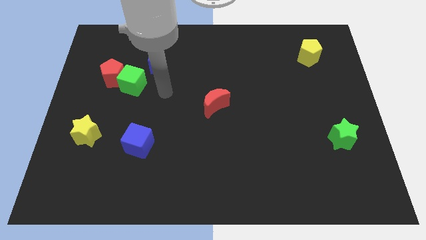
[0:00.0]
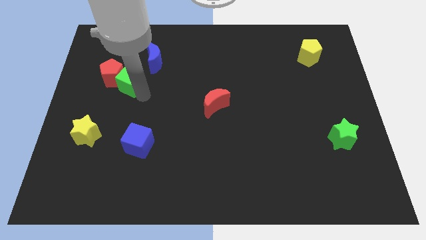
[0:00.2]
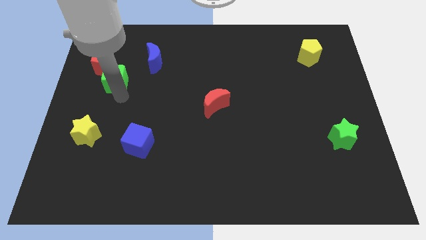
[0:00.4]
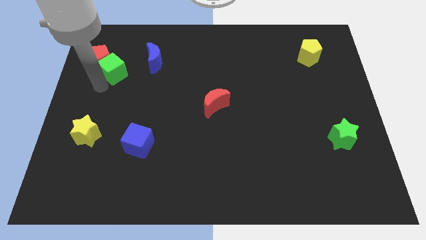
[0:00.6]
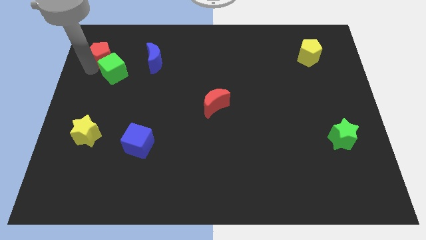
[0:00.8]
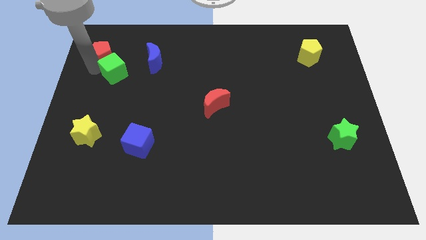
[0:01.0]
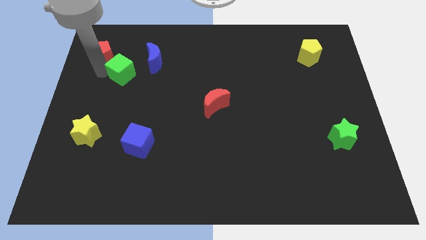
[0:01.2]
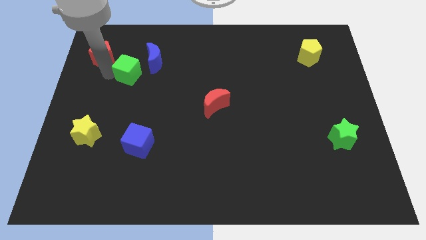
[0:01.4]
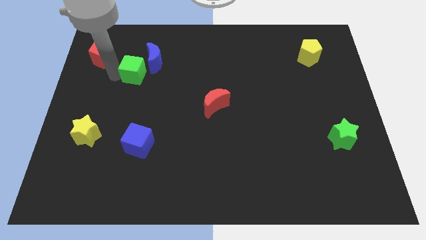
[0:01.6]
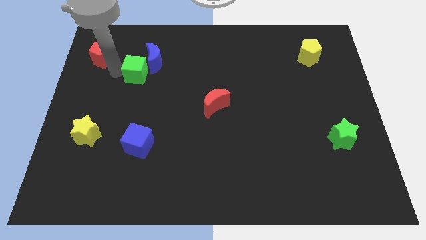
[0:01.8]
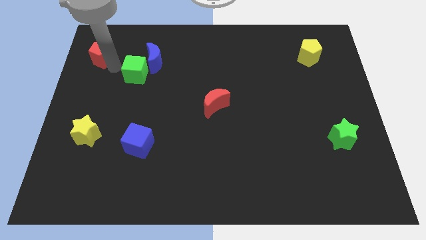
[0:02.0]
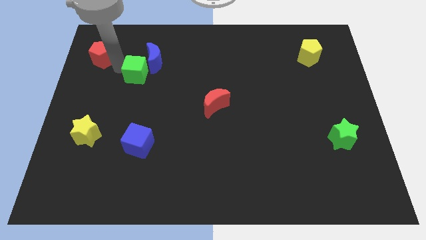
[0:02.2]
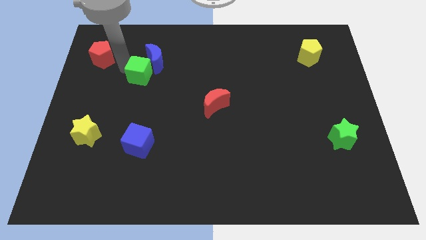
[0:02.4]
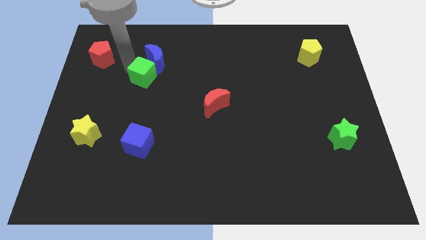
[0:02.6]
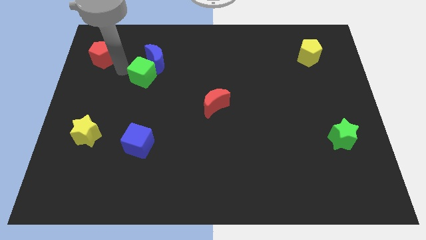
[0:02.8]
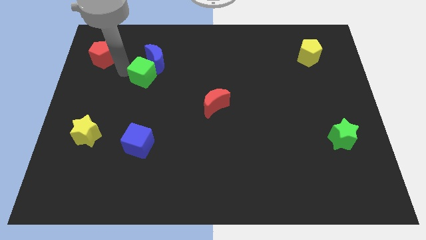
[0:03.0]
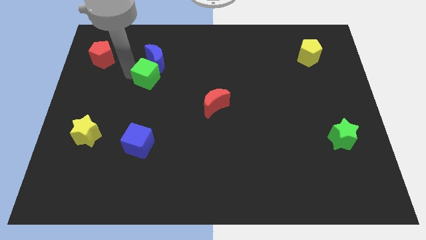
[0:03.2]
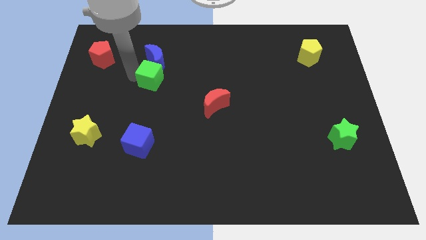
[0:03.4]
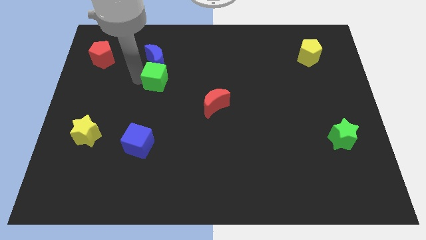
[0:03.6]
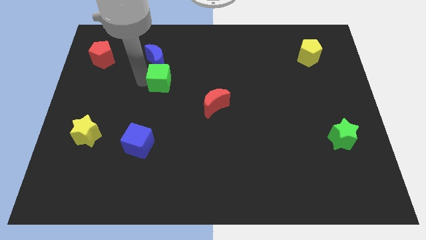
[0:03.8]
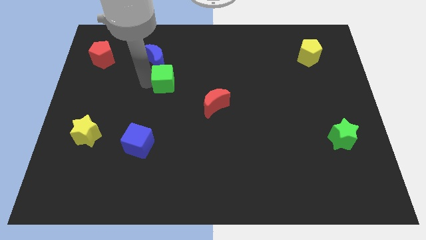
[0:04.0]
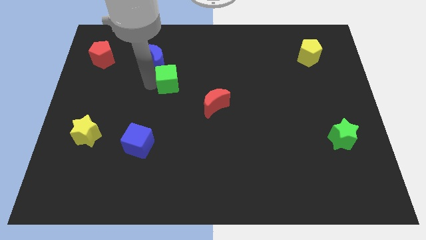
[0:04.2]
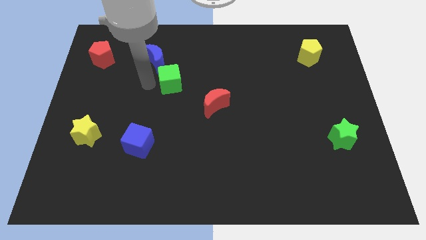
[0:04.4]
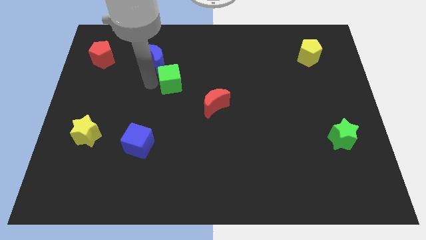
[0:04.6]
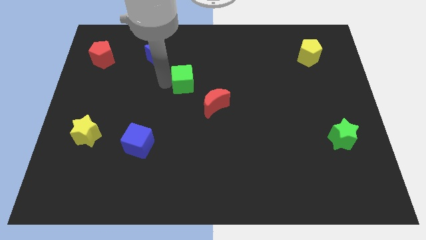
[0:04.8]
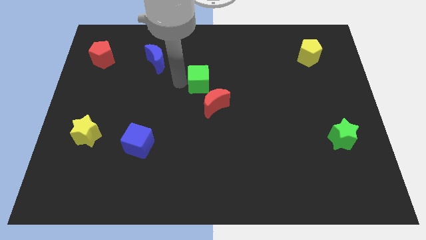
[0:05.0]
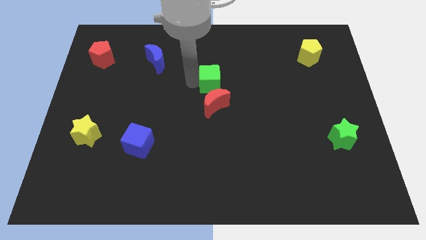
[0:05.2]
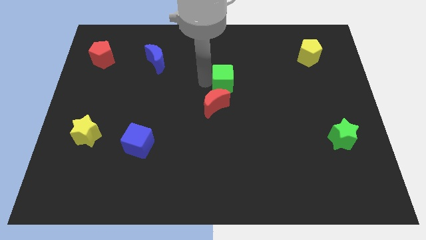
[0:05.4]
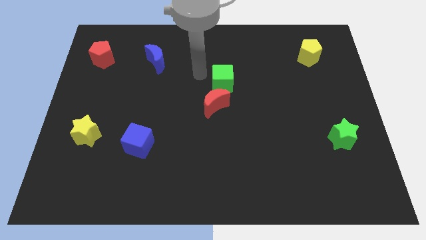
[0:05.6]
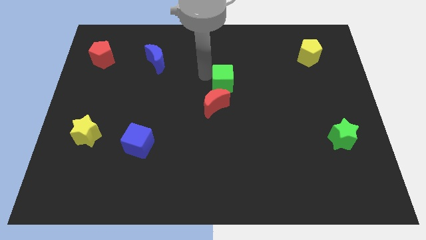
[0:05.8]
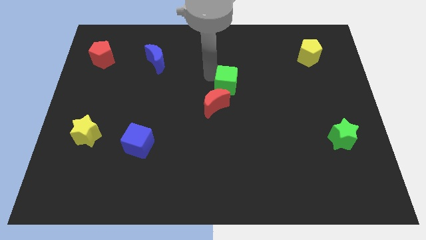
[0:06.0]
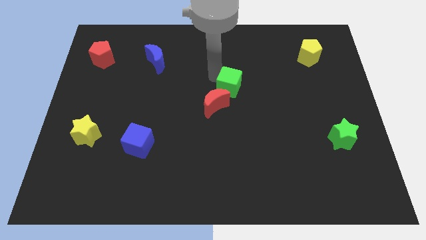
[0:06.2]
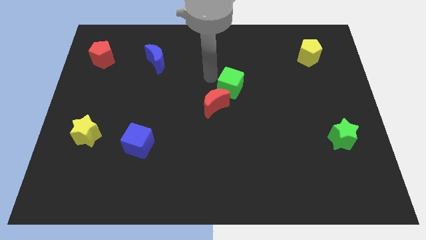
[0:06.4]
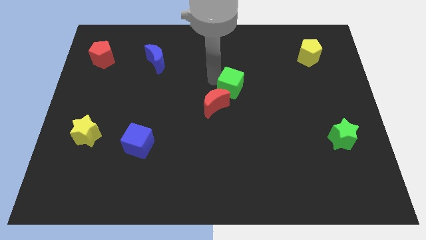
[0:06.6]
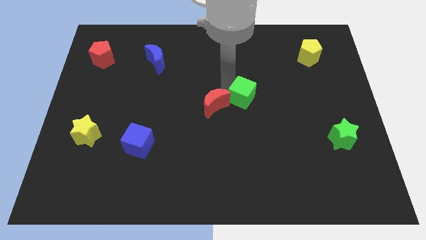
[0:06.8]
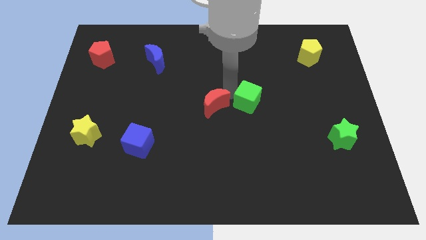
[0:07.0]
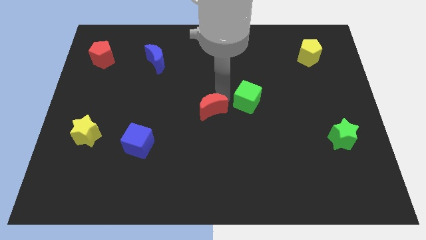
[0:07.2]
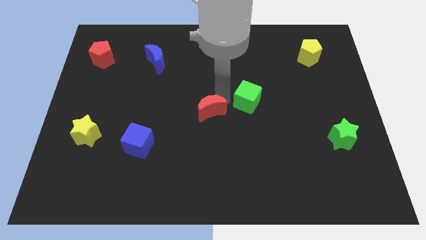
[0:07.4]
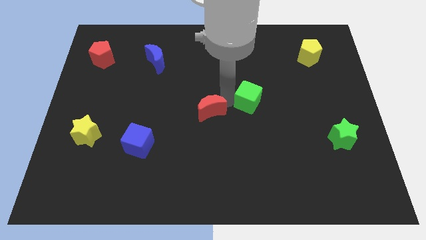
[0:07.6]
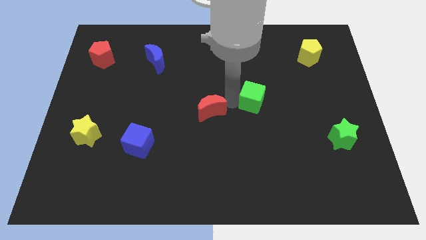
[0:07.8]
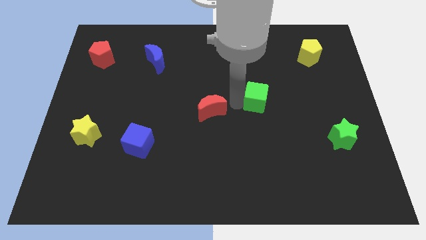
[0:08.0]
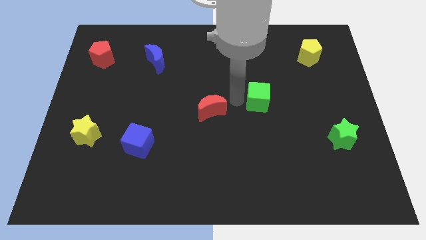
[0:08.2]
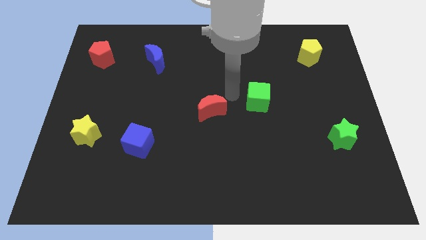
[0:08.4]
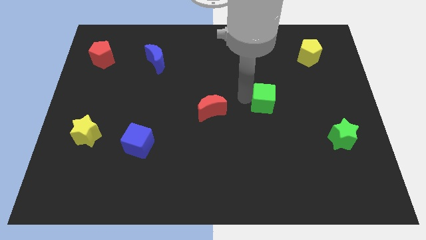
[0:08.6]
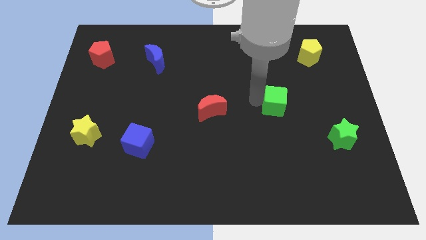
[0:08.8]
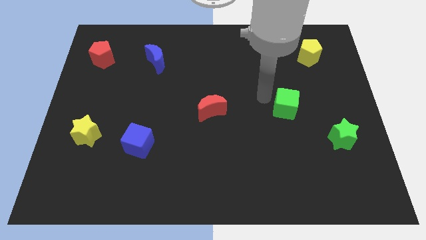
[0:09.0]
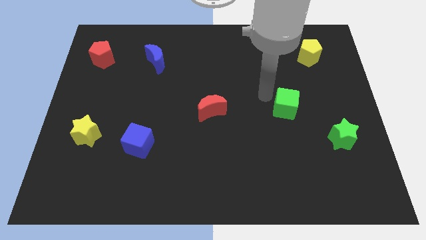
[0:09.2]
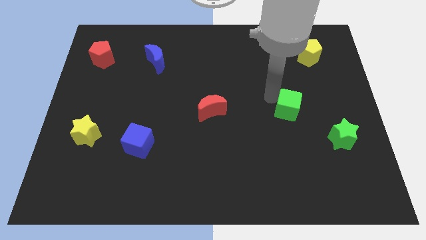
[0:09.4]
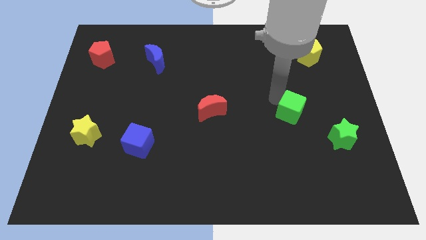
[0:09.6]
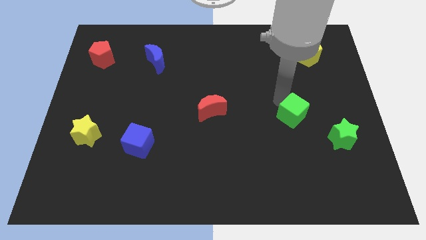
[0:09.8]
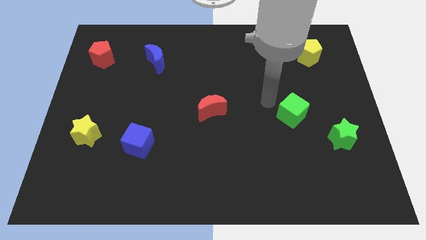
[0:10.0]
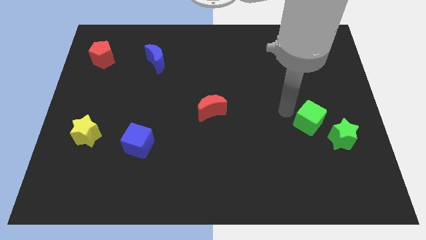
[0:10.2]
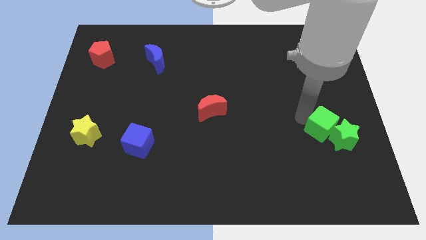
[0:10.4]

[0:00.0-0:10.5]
slide the green cube next to the green star
